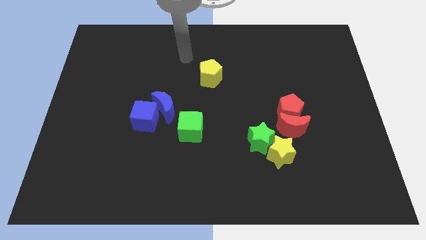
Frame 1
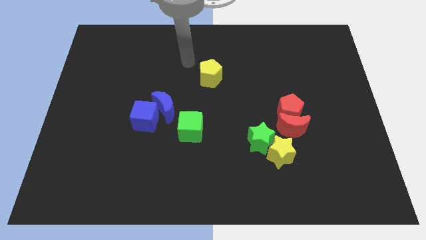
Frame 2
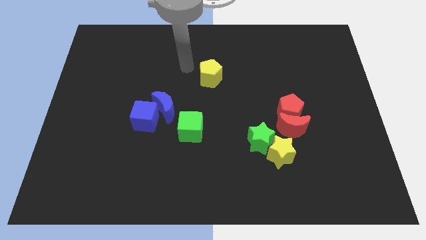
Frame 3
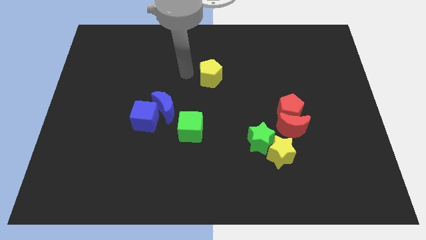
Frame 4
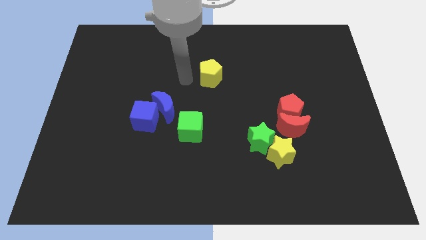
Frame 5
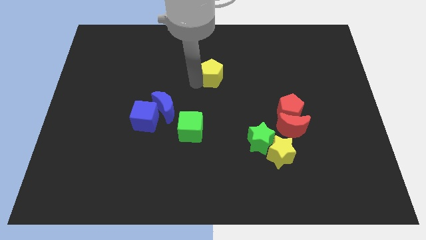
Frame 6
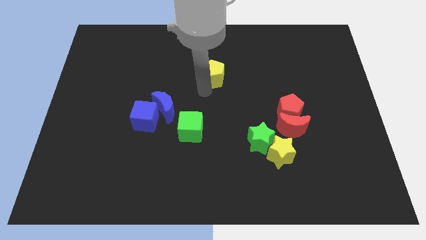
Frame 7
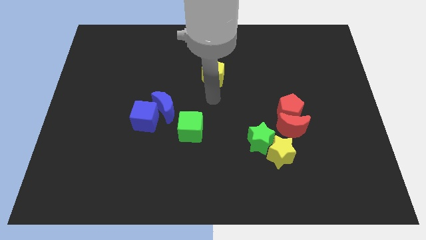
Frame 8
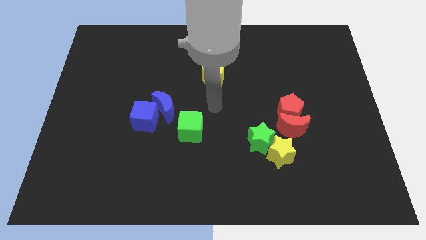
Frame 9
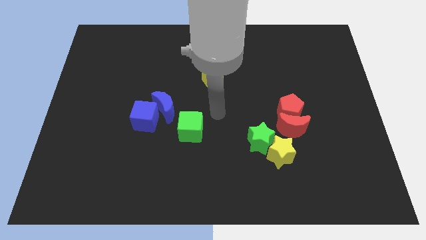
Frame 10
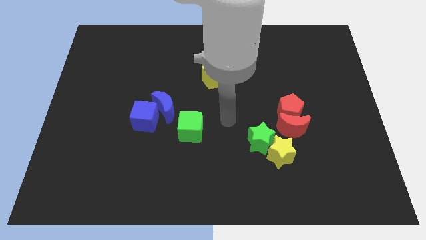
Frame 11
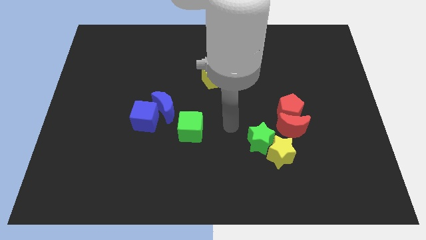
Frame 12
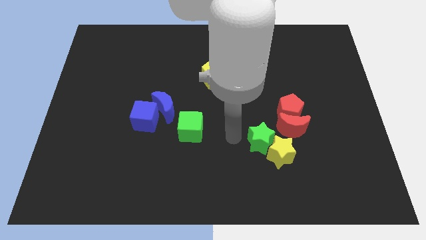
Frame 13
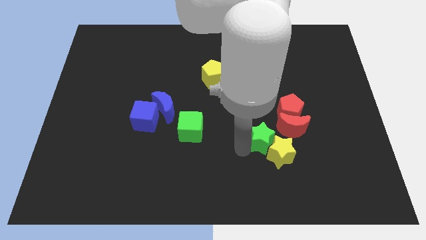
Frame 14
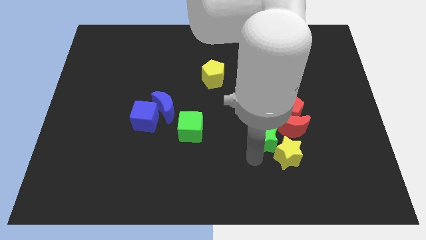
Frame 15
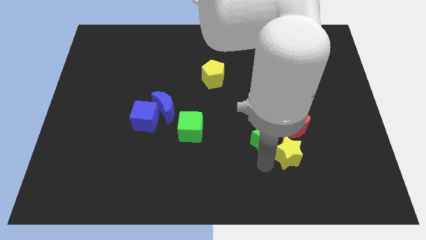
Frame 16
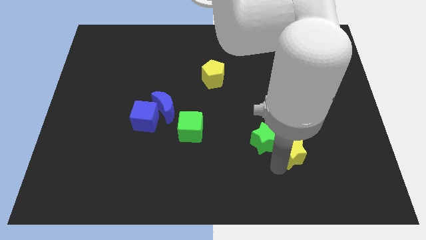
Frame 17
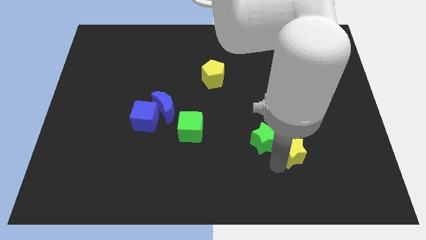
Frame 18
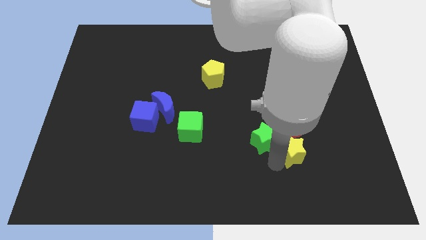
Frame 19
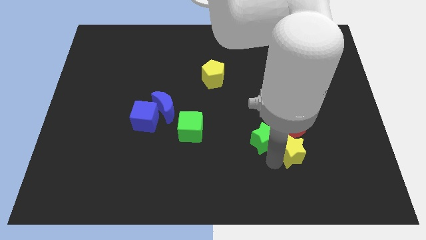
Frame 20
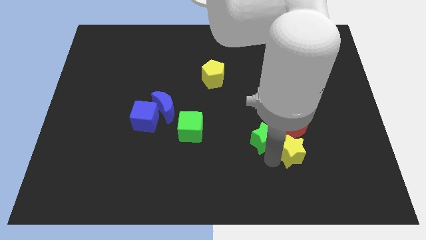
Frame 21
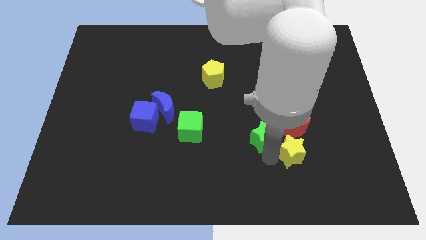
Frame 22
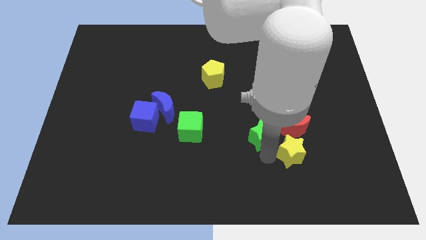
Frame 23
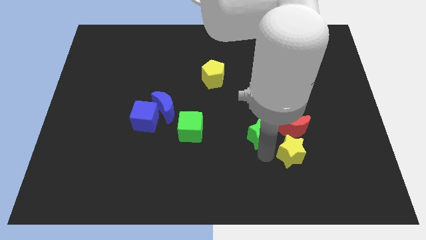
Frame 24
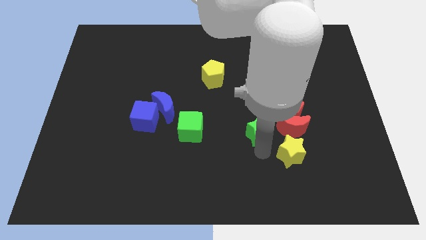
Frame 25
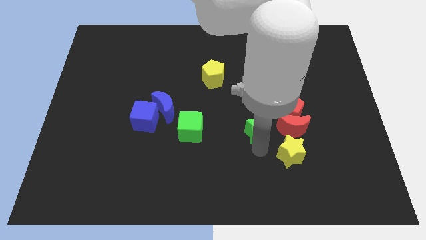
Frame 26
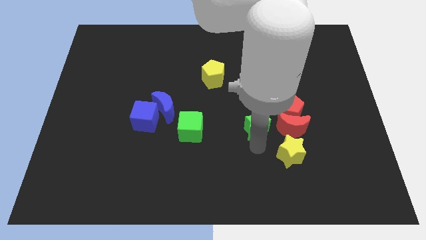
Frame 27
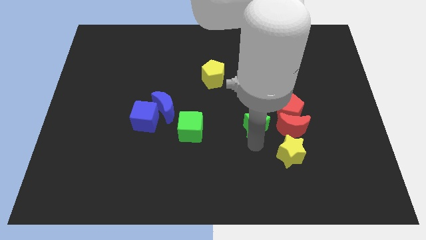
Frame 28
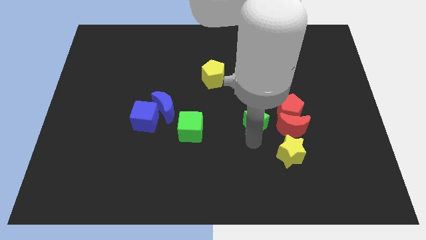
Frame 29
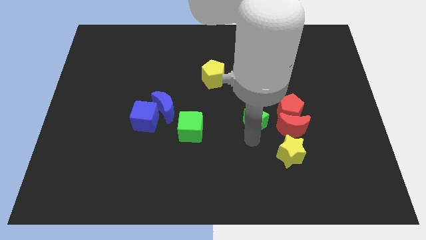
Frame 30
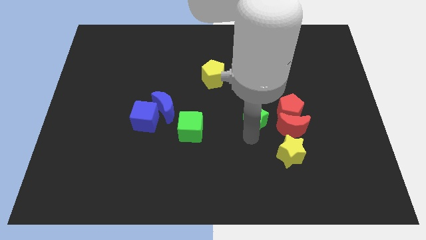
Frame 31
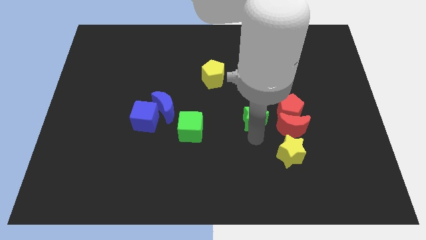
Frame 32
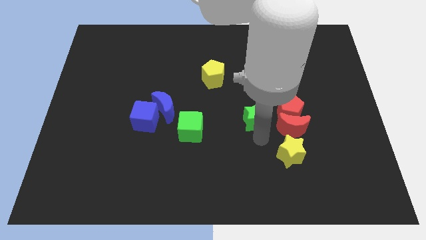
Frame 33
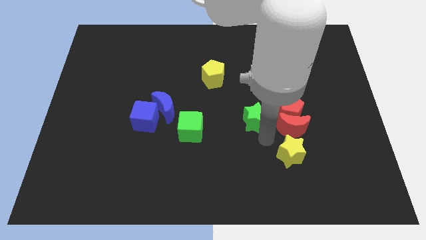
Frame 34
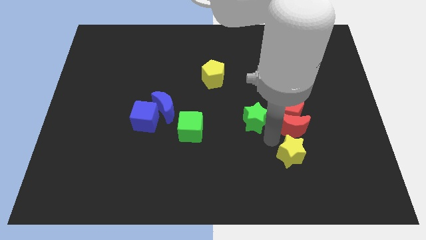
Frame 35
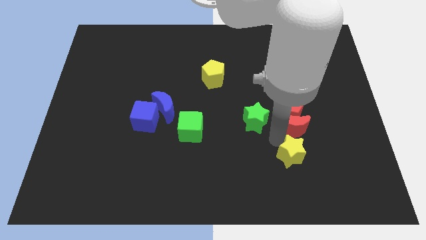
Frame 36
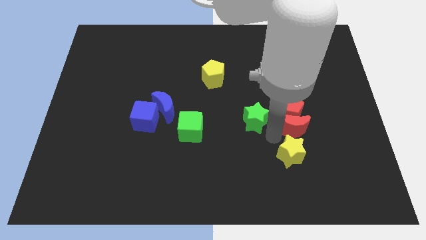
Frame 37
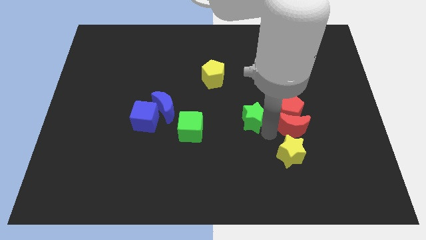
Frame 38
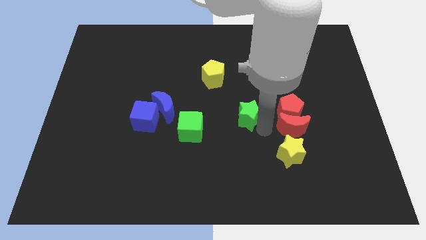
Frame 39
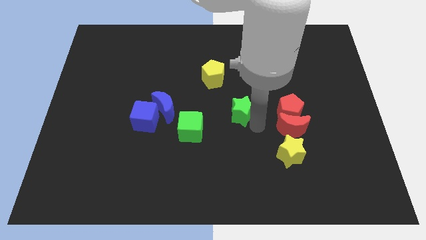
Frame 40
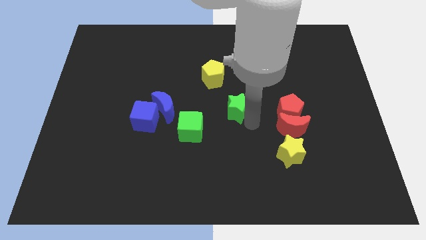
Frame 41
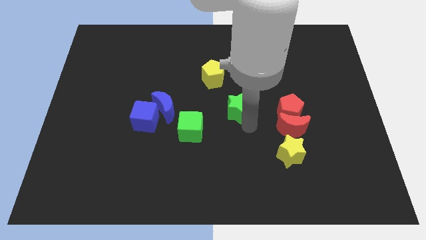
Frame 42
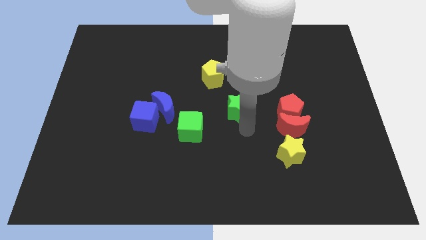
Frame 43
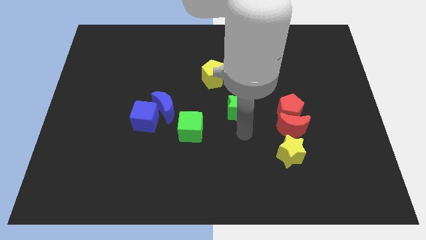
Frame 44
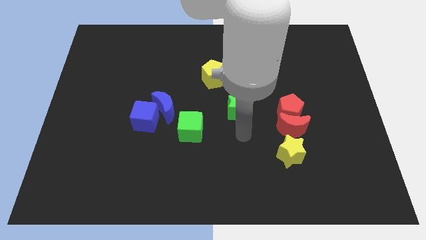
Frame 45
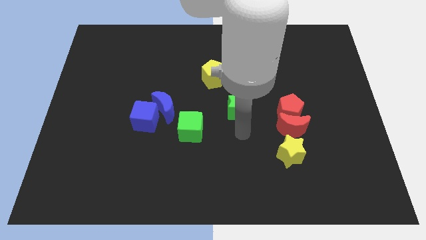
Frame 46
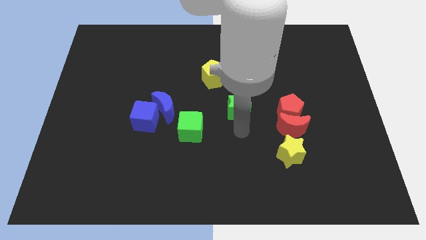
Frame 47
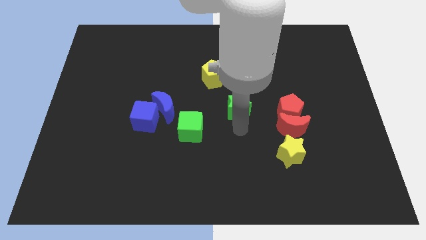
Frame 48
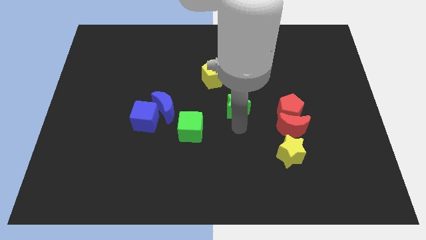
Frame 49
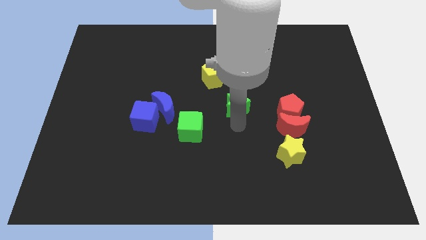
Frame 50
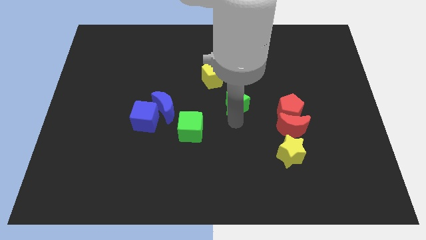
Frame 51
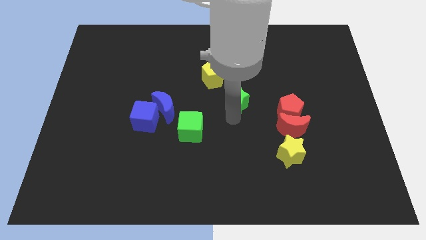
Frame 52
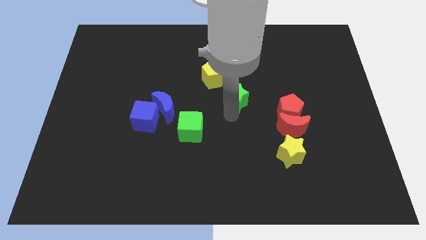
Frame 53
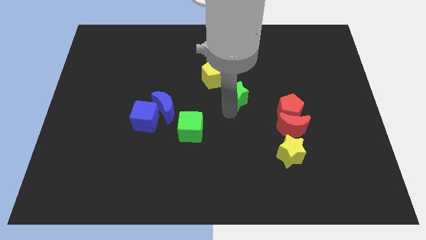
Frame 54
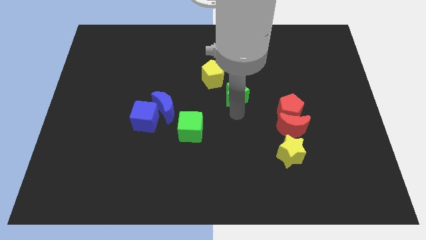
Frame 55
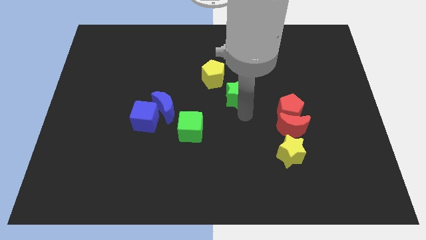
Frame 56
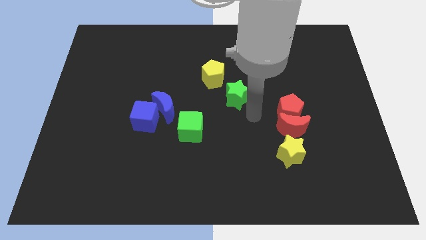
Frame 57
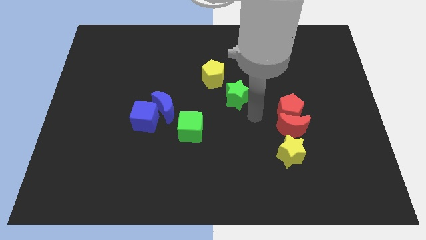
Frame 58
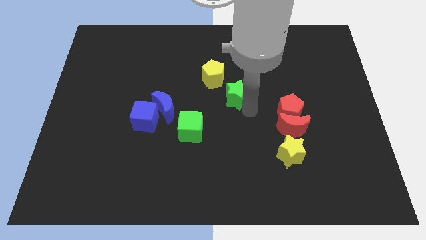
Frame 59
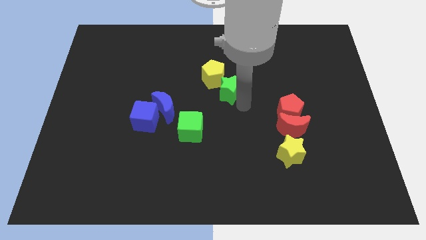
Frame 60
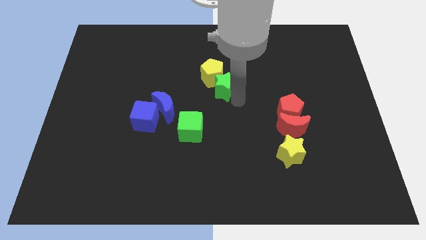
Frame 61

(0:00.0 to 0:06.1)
slide the green star close to the yellow pentagon
